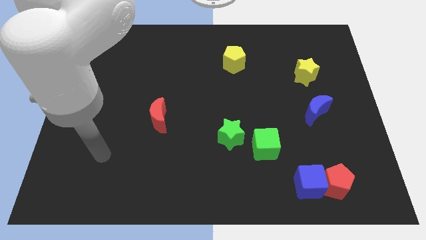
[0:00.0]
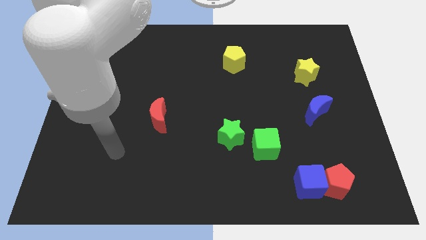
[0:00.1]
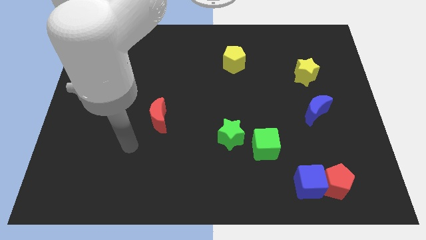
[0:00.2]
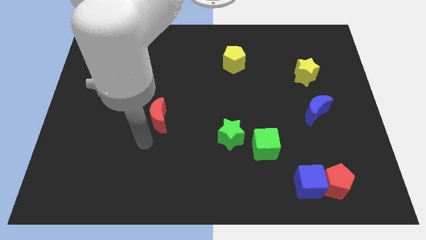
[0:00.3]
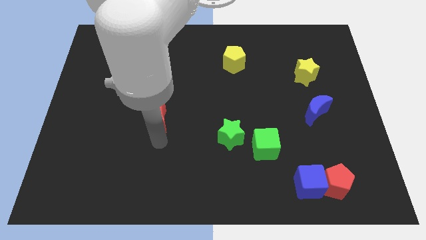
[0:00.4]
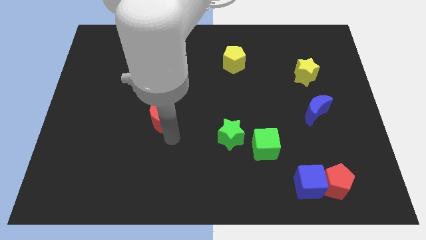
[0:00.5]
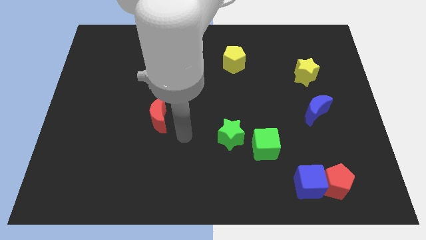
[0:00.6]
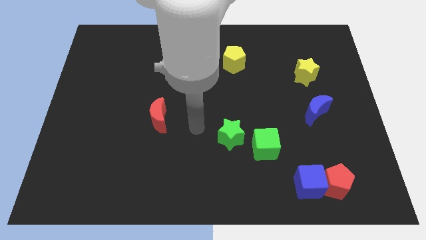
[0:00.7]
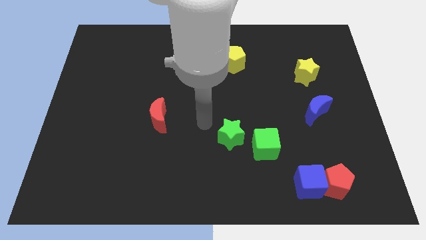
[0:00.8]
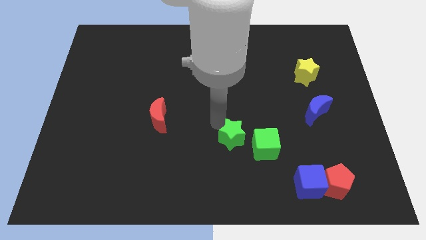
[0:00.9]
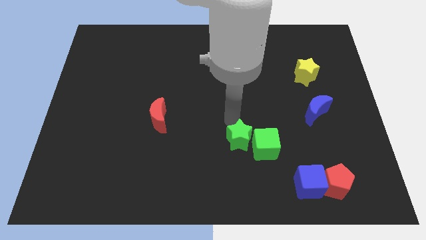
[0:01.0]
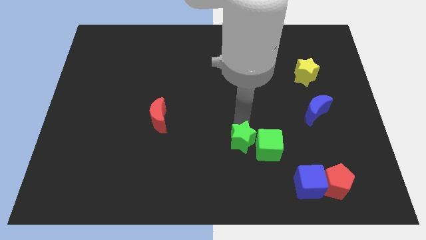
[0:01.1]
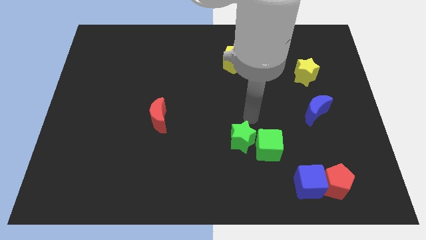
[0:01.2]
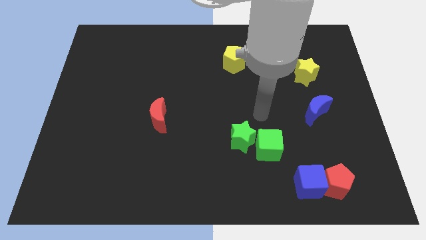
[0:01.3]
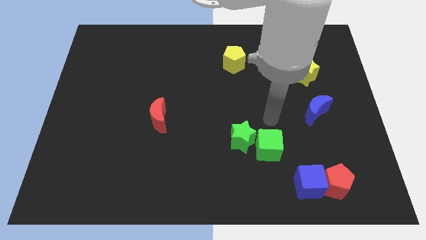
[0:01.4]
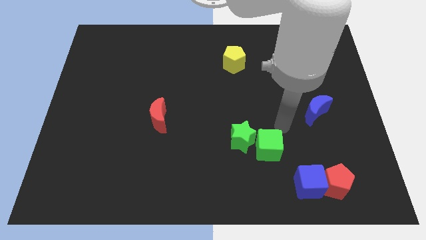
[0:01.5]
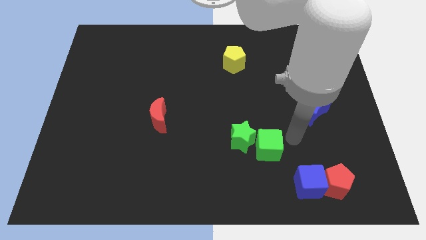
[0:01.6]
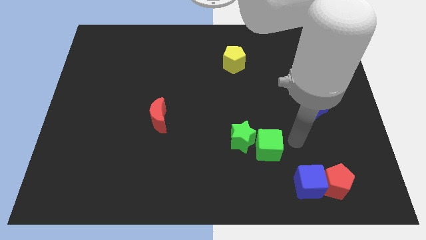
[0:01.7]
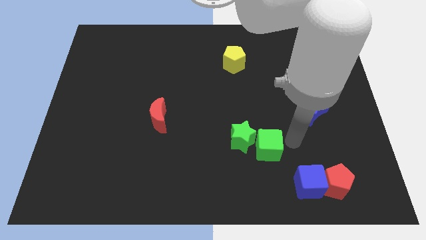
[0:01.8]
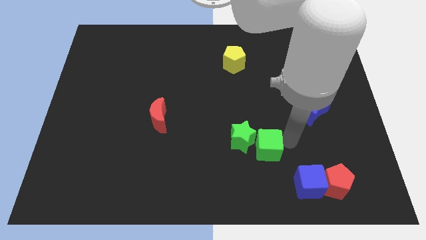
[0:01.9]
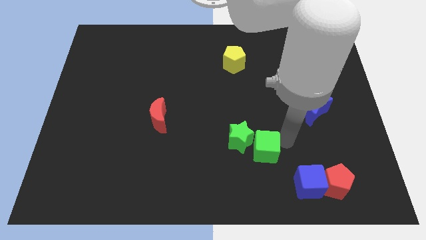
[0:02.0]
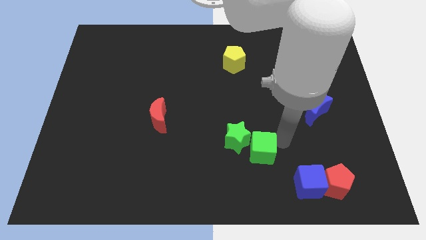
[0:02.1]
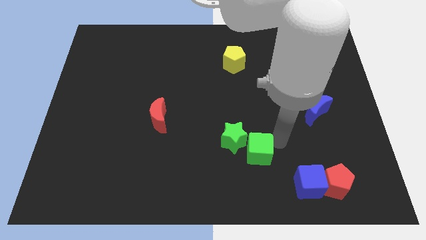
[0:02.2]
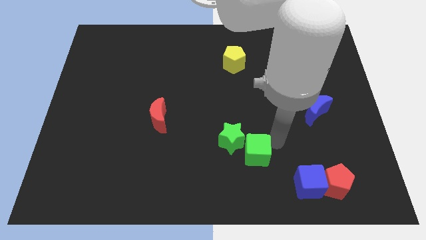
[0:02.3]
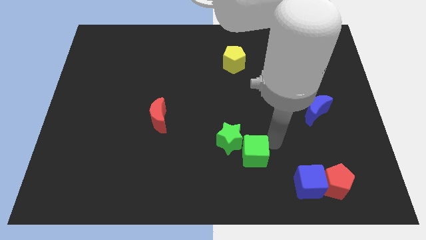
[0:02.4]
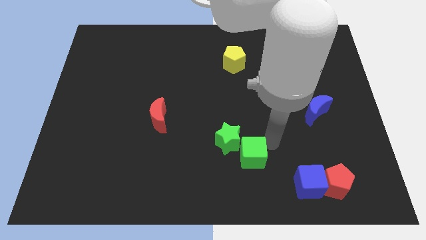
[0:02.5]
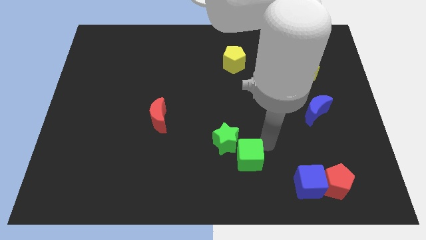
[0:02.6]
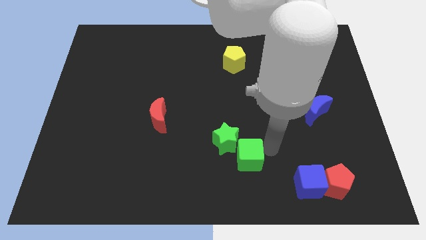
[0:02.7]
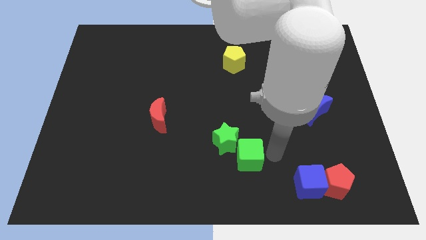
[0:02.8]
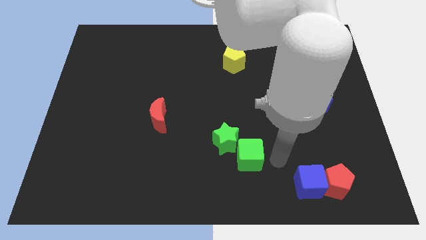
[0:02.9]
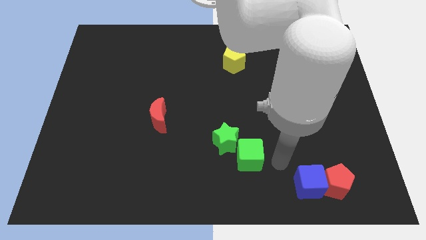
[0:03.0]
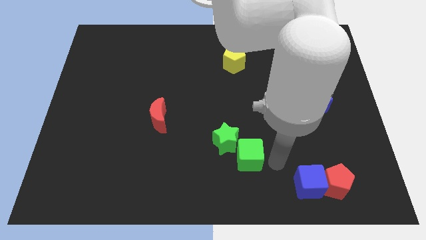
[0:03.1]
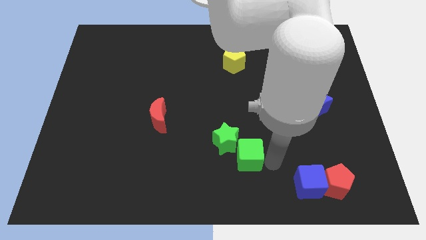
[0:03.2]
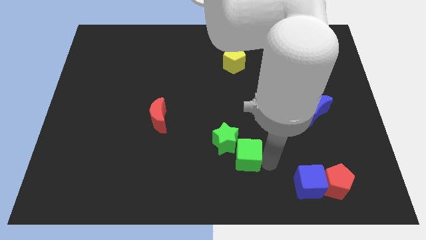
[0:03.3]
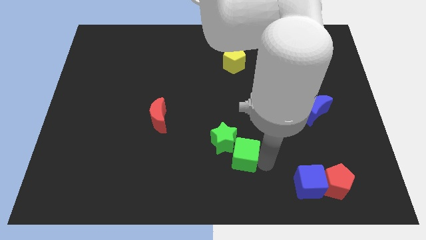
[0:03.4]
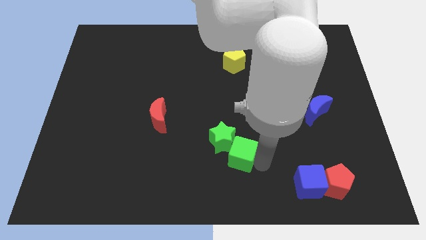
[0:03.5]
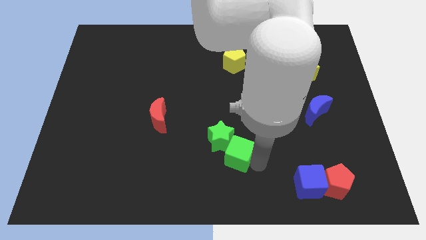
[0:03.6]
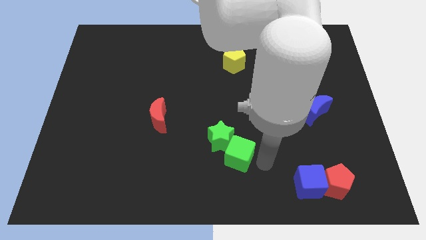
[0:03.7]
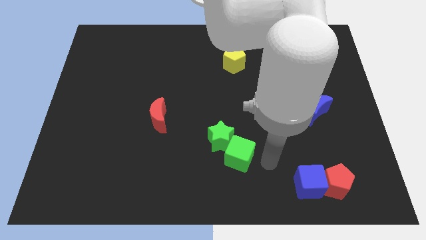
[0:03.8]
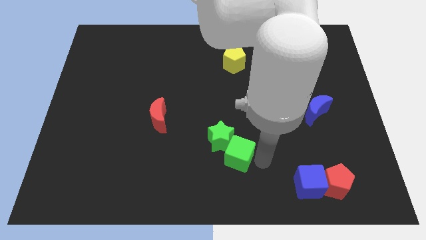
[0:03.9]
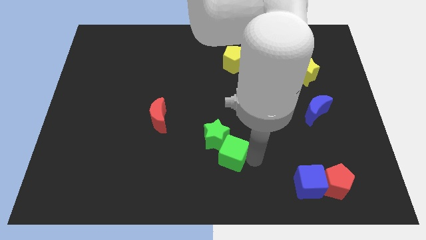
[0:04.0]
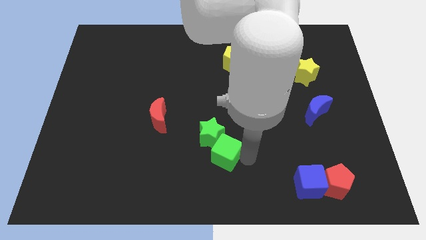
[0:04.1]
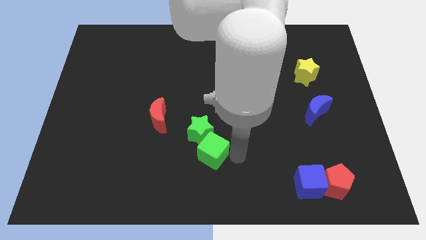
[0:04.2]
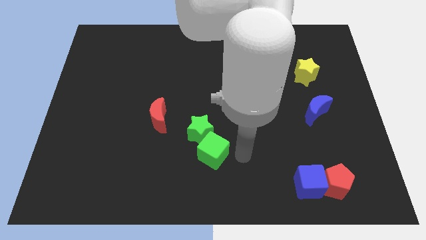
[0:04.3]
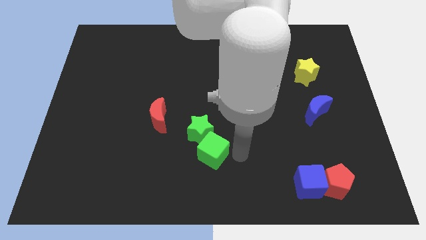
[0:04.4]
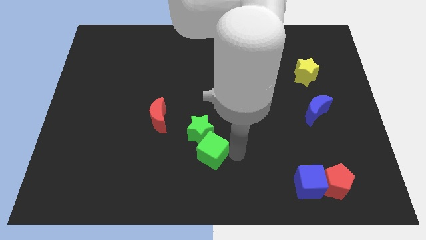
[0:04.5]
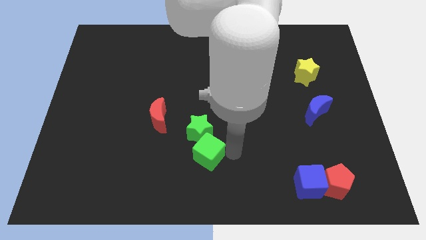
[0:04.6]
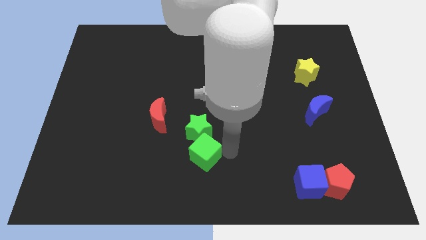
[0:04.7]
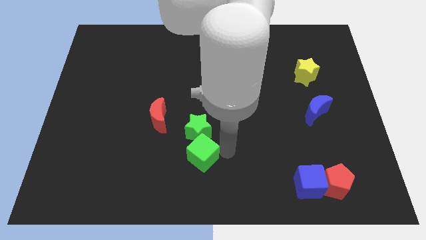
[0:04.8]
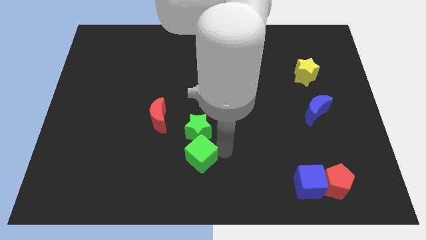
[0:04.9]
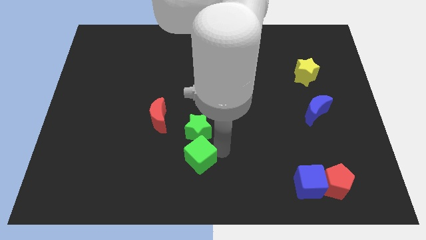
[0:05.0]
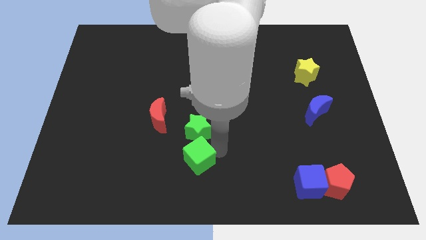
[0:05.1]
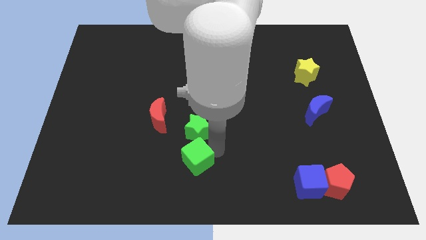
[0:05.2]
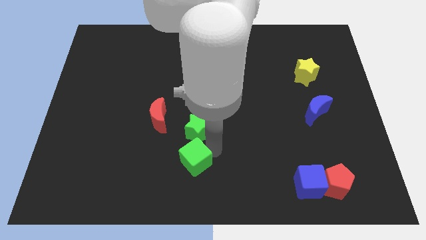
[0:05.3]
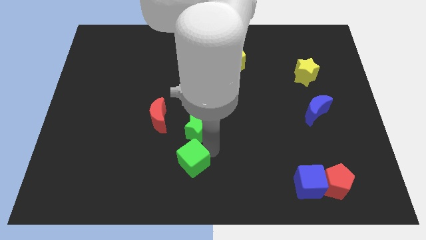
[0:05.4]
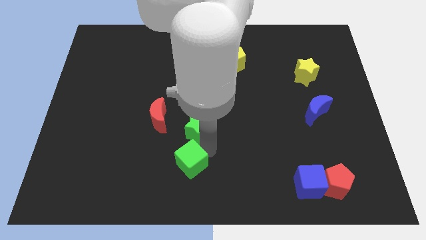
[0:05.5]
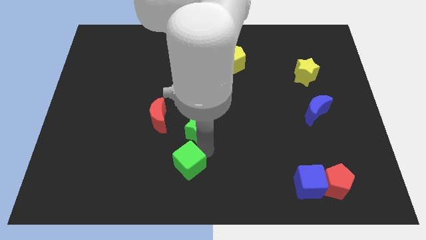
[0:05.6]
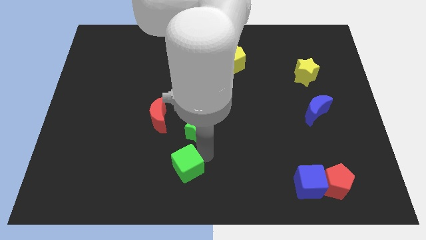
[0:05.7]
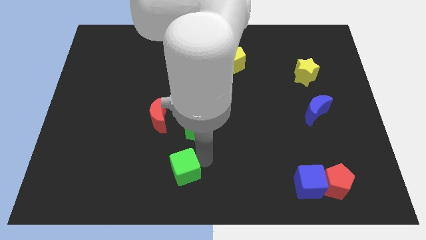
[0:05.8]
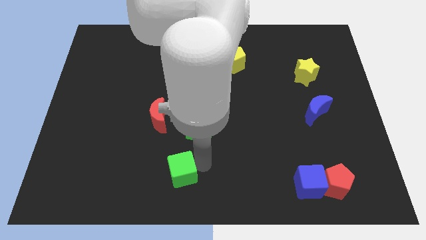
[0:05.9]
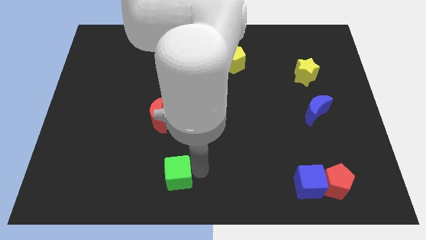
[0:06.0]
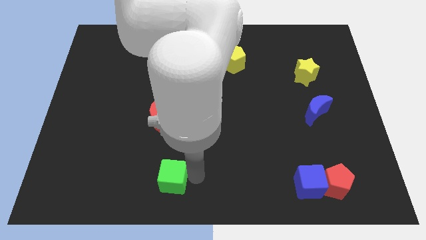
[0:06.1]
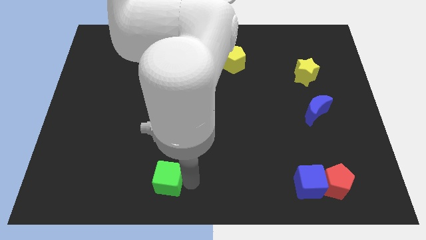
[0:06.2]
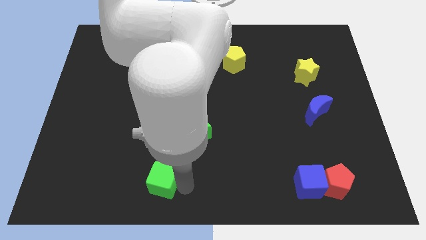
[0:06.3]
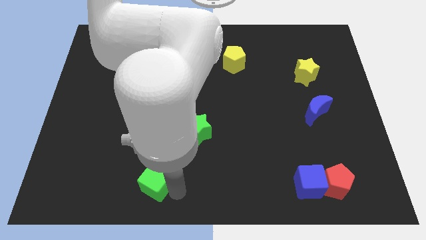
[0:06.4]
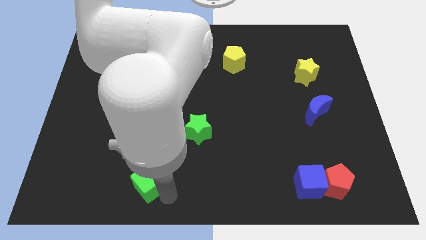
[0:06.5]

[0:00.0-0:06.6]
slide the green cube to the left

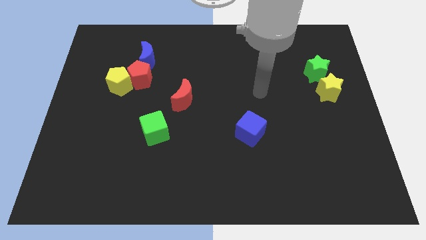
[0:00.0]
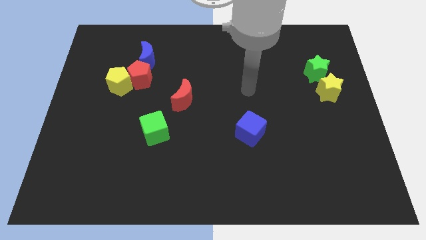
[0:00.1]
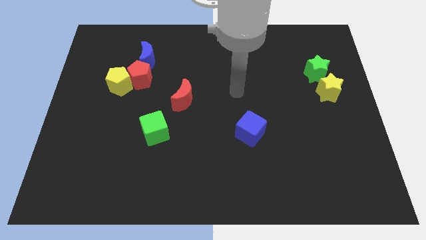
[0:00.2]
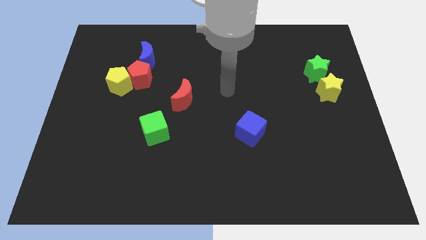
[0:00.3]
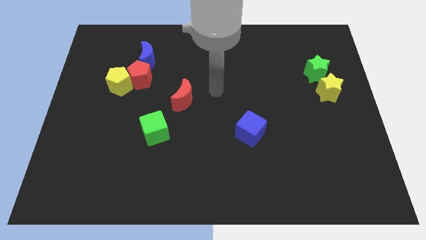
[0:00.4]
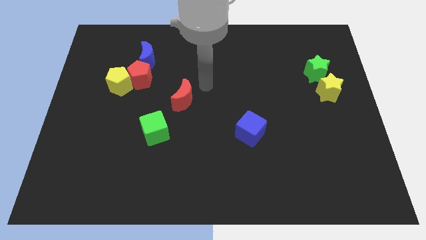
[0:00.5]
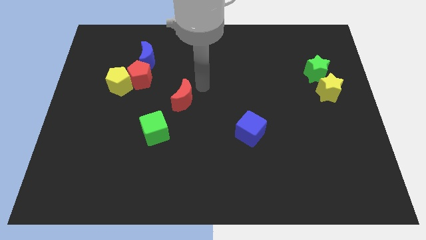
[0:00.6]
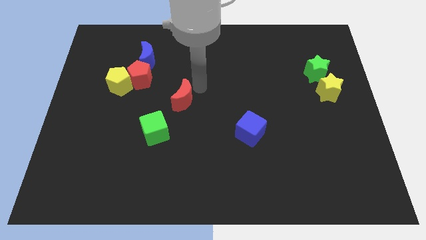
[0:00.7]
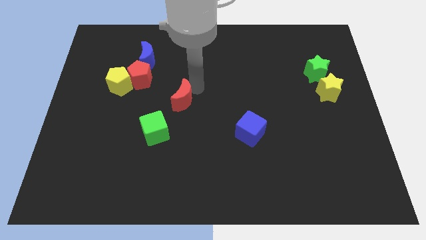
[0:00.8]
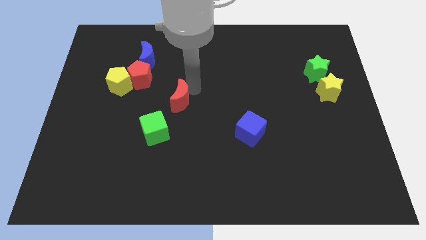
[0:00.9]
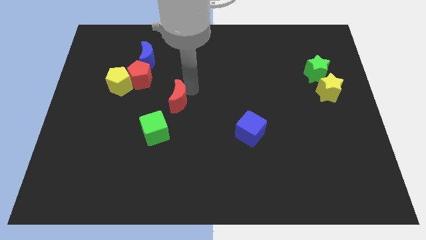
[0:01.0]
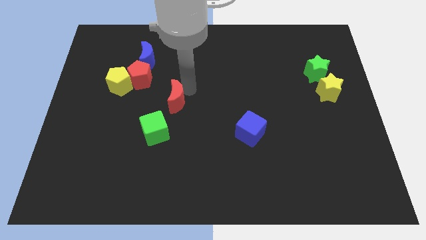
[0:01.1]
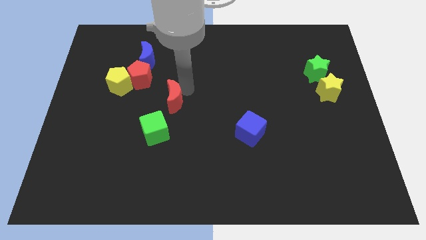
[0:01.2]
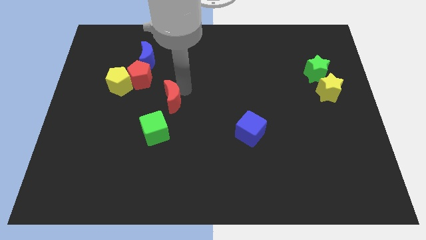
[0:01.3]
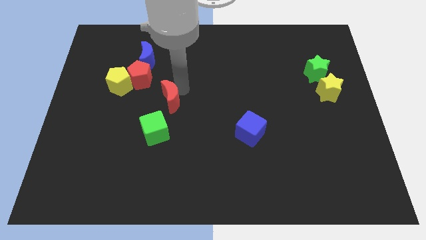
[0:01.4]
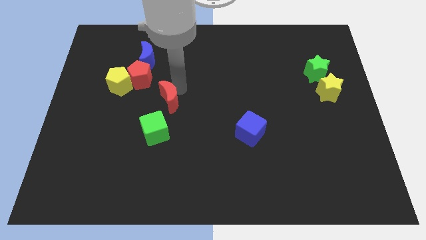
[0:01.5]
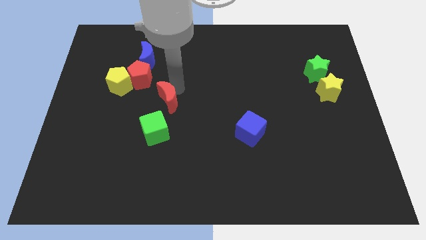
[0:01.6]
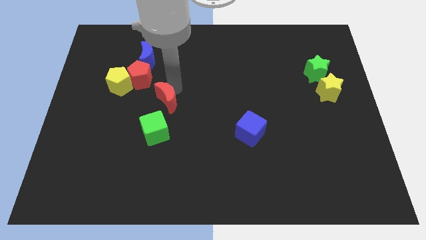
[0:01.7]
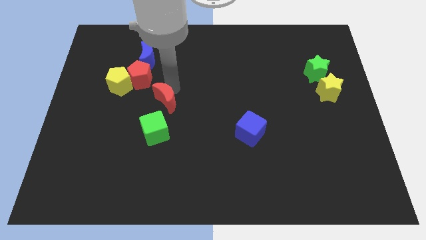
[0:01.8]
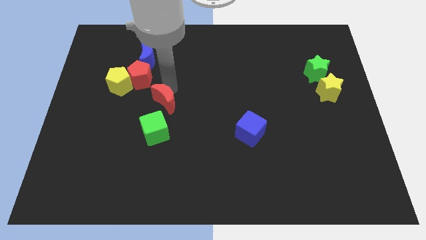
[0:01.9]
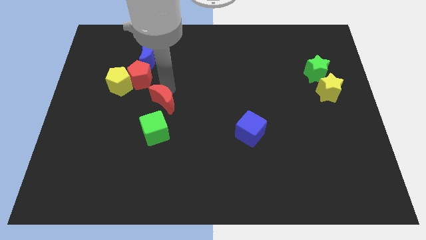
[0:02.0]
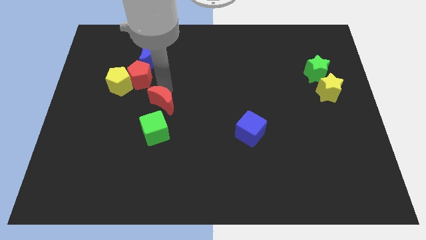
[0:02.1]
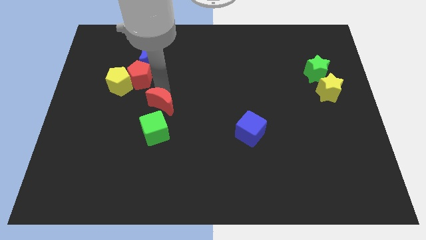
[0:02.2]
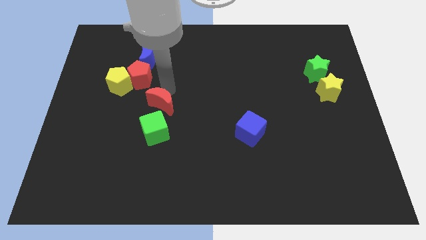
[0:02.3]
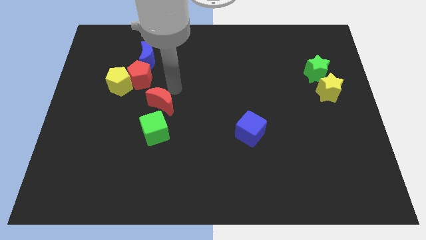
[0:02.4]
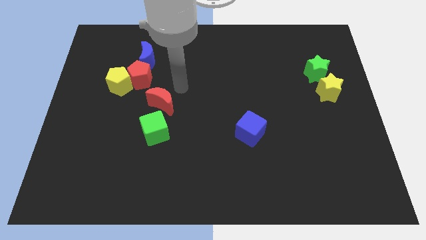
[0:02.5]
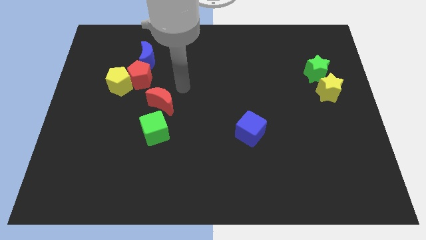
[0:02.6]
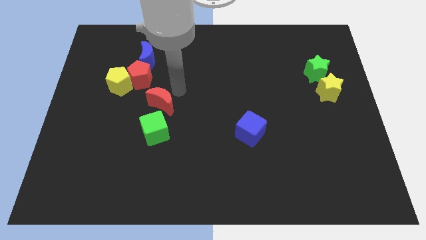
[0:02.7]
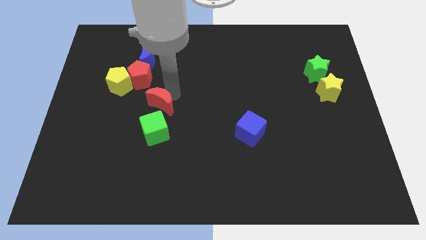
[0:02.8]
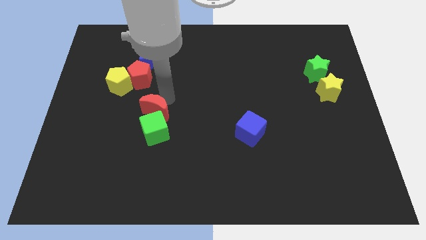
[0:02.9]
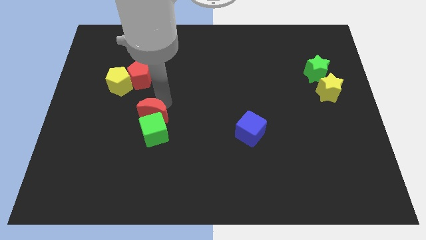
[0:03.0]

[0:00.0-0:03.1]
move the red moon somewhat downwards and then to the left
